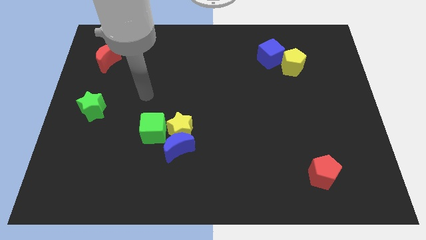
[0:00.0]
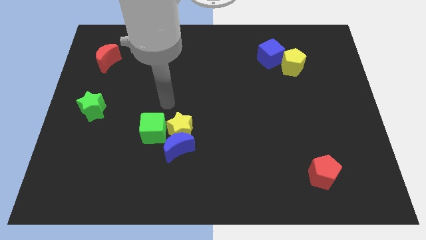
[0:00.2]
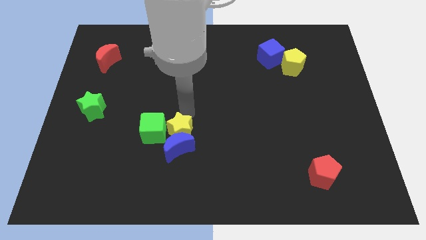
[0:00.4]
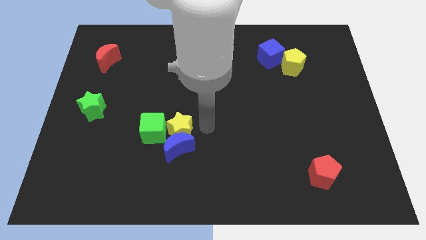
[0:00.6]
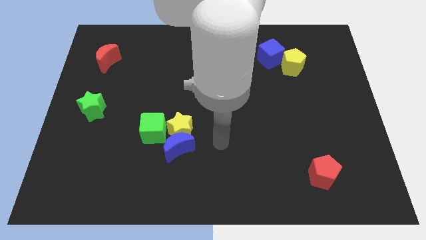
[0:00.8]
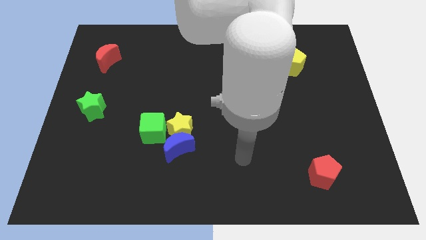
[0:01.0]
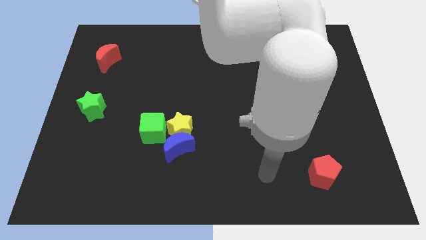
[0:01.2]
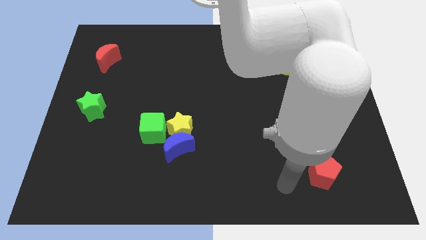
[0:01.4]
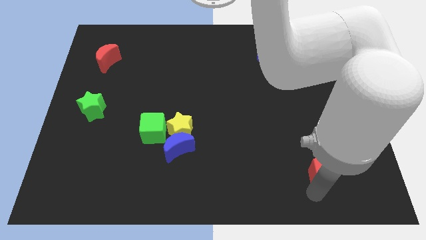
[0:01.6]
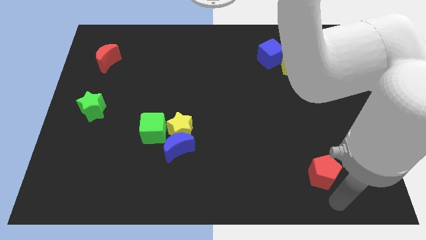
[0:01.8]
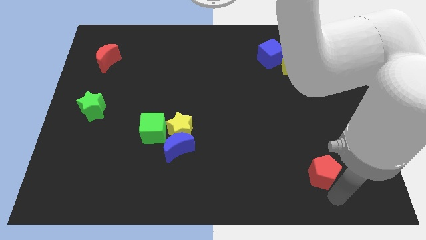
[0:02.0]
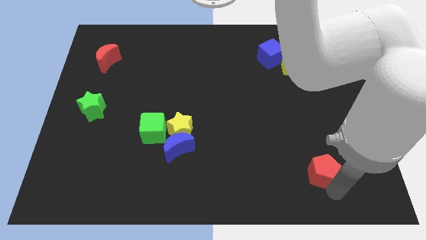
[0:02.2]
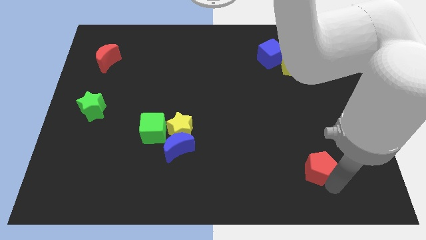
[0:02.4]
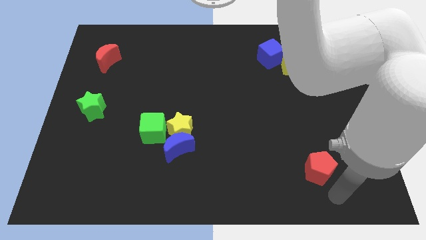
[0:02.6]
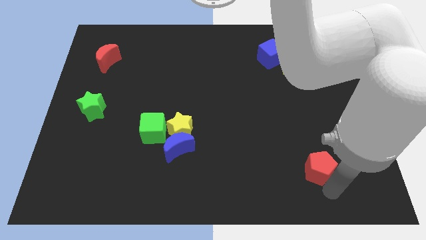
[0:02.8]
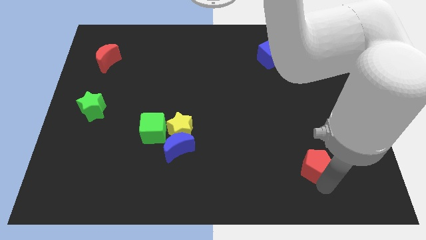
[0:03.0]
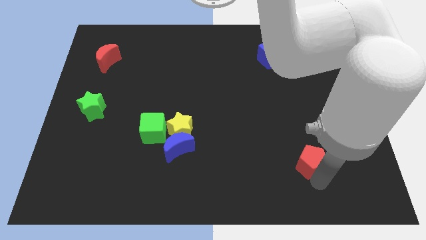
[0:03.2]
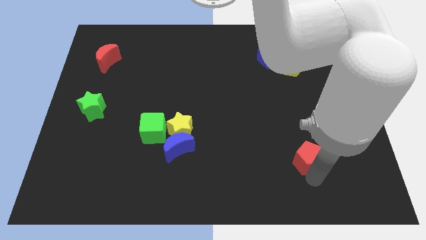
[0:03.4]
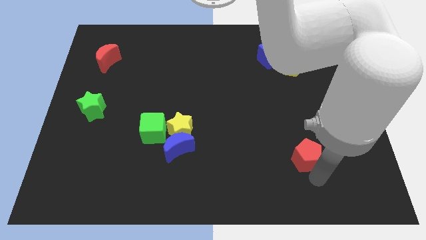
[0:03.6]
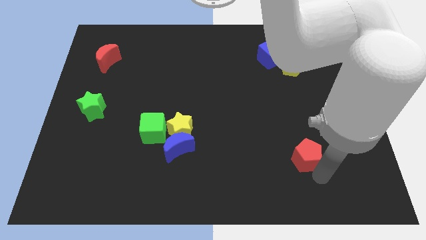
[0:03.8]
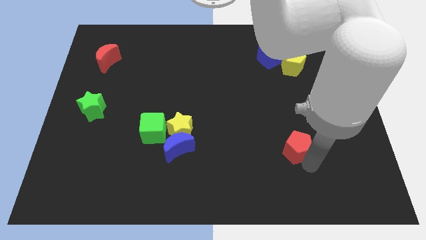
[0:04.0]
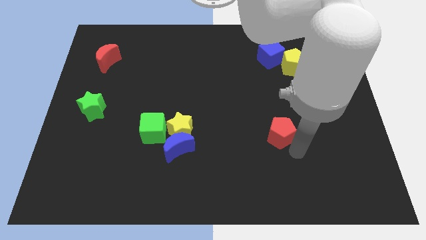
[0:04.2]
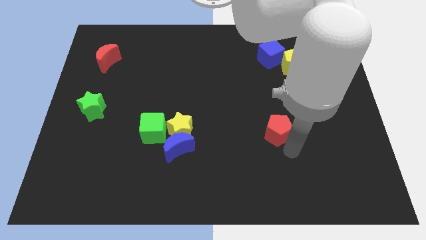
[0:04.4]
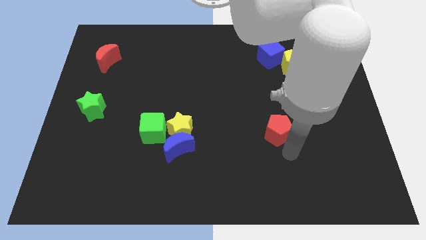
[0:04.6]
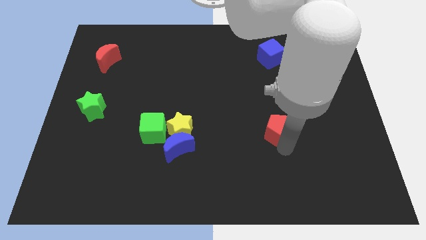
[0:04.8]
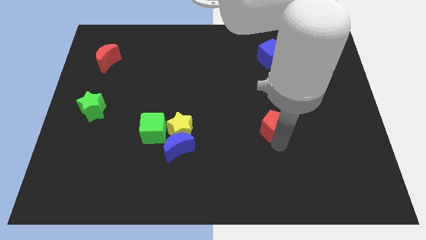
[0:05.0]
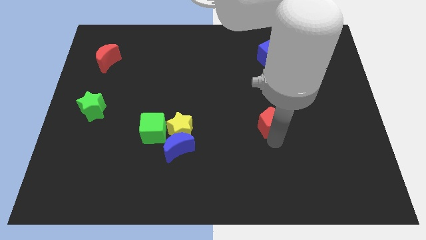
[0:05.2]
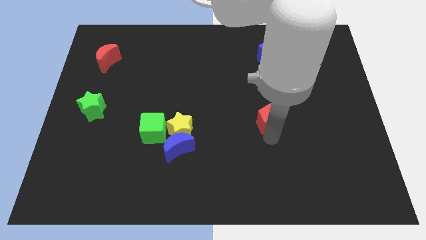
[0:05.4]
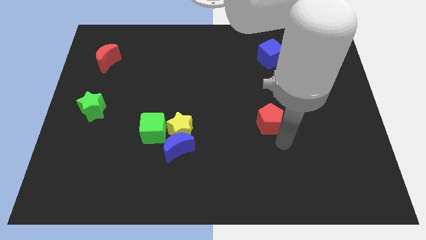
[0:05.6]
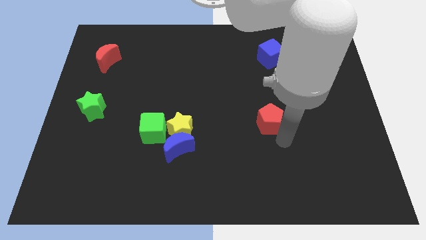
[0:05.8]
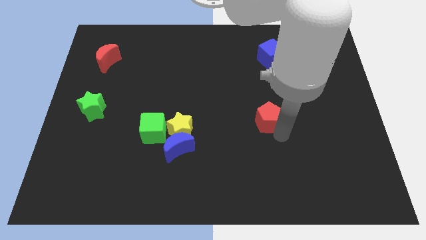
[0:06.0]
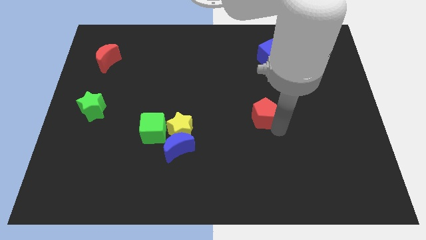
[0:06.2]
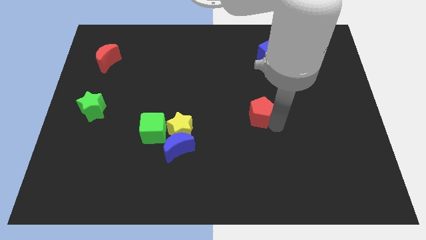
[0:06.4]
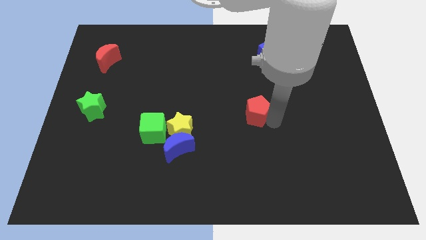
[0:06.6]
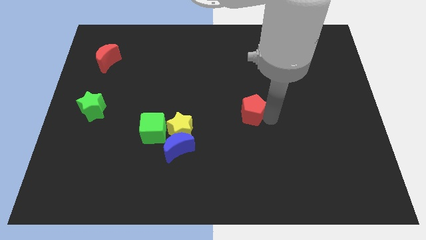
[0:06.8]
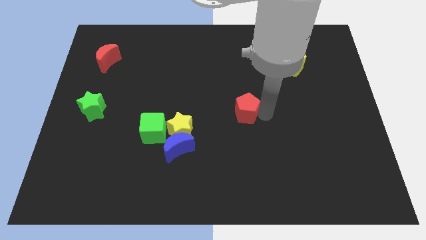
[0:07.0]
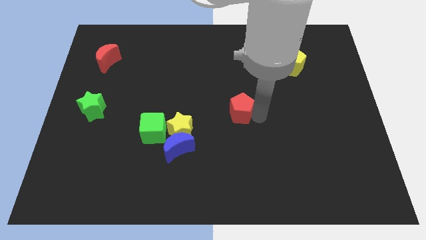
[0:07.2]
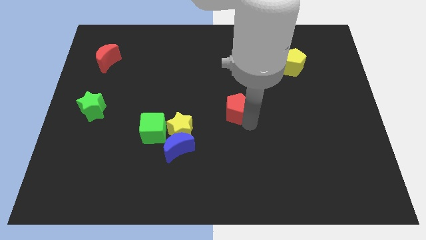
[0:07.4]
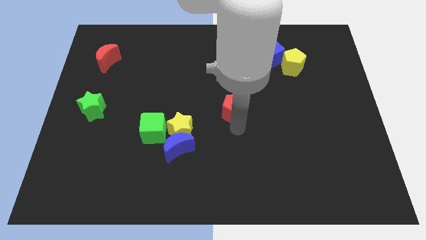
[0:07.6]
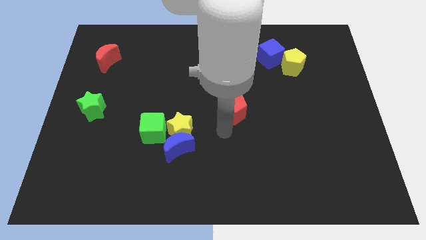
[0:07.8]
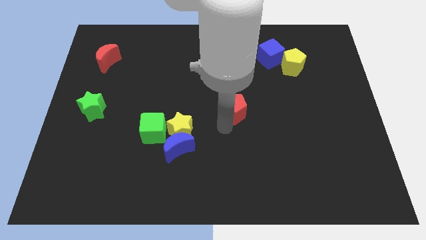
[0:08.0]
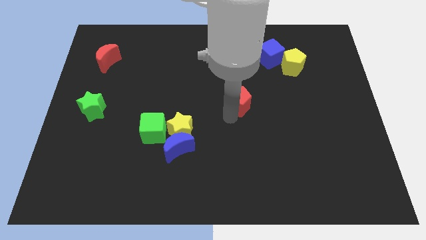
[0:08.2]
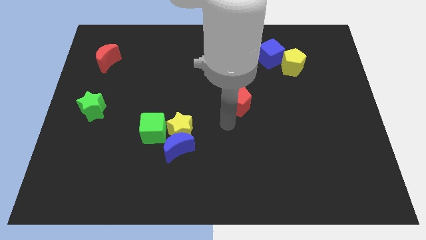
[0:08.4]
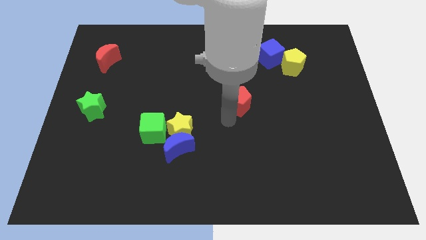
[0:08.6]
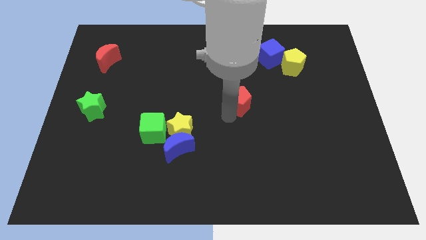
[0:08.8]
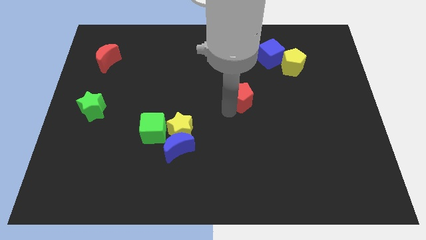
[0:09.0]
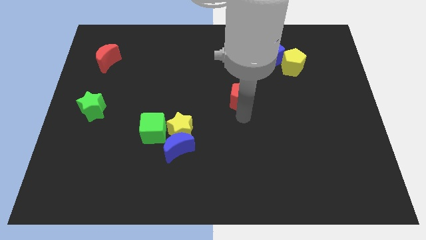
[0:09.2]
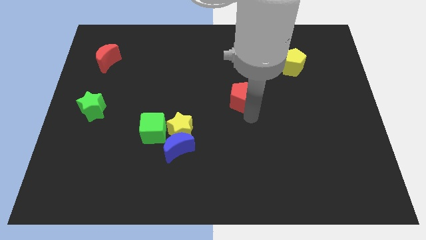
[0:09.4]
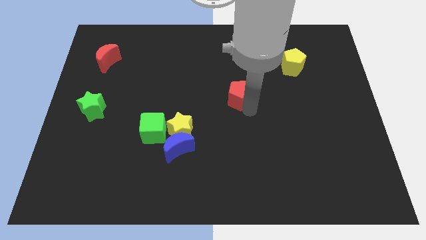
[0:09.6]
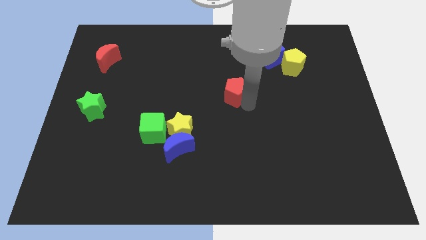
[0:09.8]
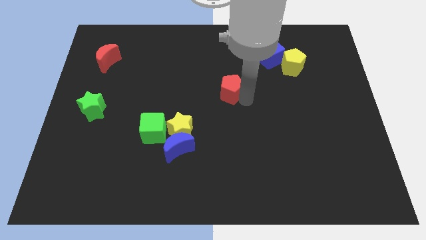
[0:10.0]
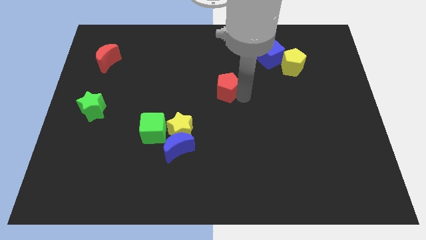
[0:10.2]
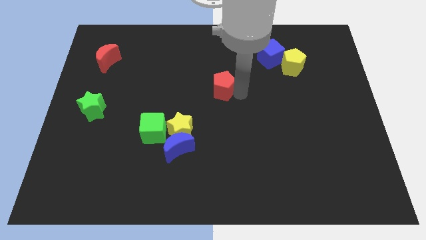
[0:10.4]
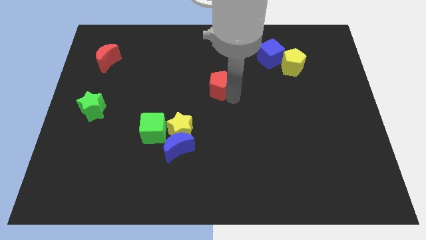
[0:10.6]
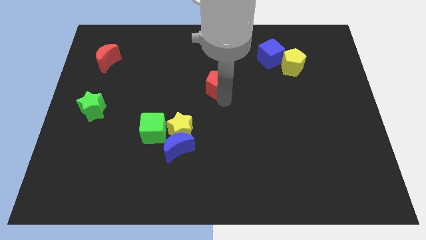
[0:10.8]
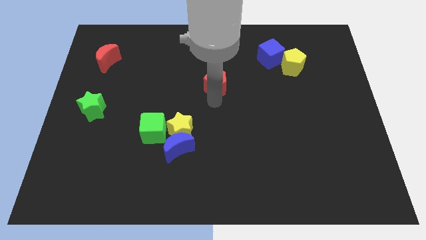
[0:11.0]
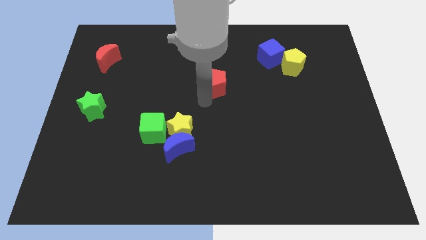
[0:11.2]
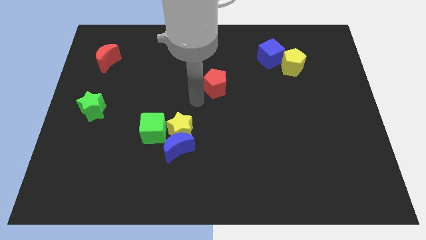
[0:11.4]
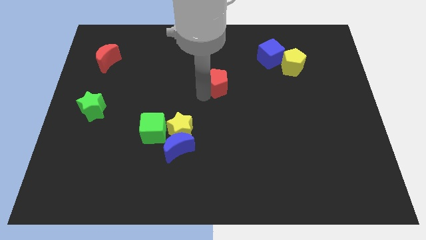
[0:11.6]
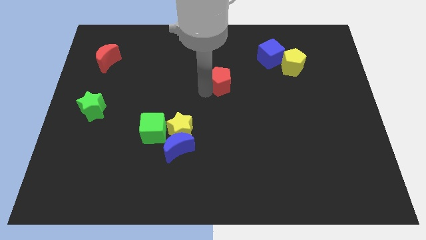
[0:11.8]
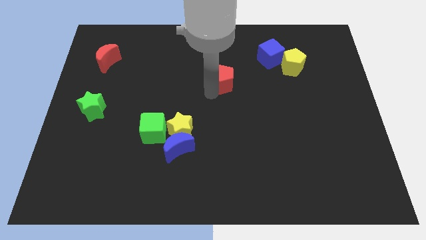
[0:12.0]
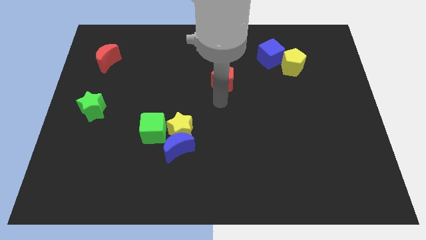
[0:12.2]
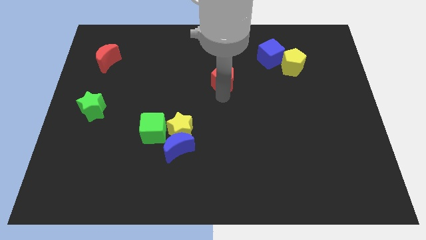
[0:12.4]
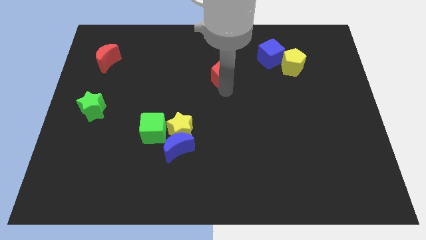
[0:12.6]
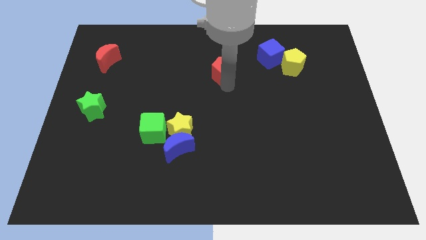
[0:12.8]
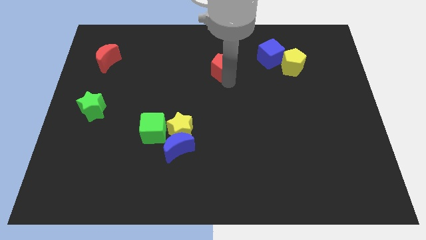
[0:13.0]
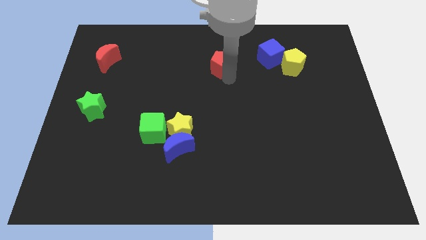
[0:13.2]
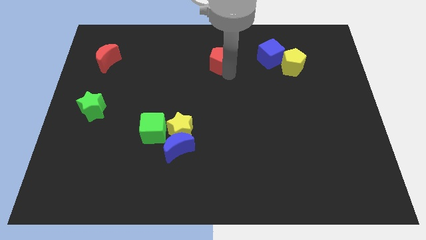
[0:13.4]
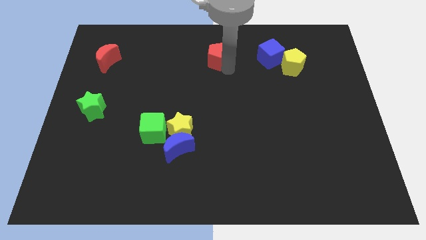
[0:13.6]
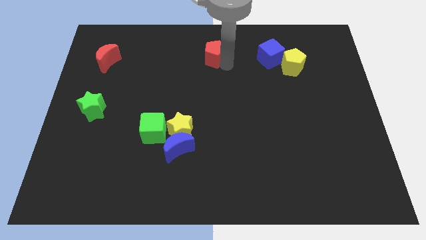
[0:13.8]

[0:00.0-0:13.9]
put the red pentagon to the towards your base
